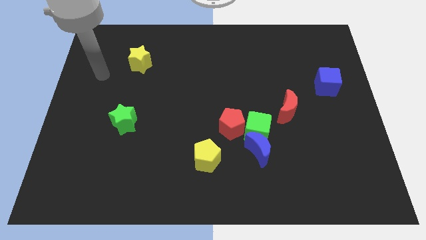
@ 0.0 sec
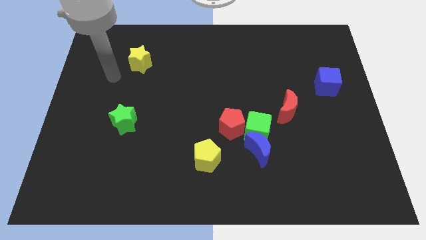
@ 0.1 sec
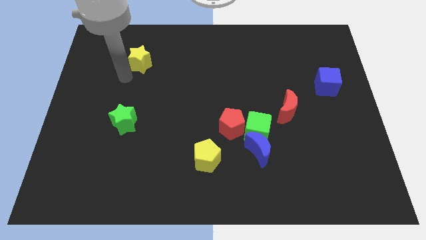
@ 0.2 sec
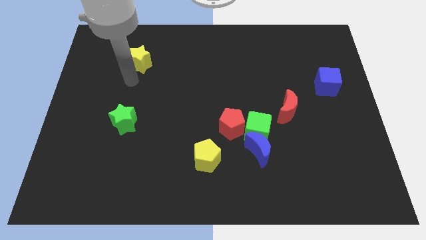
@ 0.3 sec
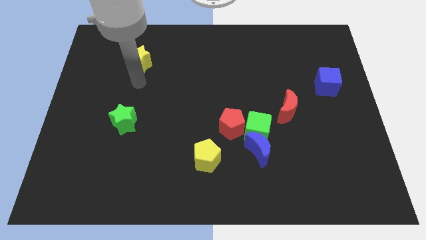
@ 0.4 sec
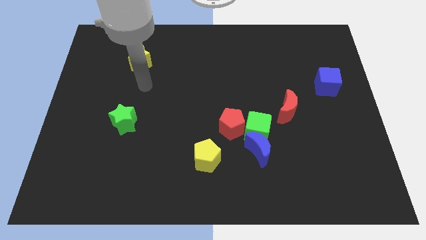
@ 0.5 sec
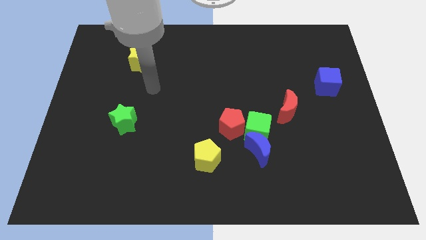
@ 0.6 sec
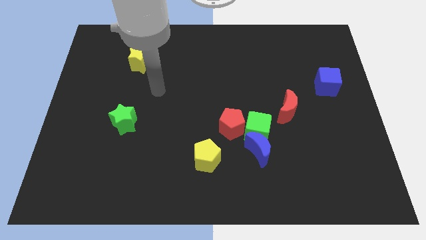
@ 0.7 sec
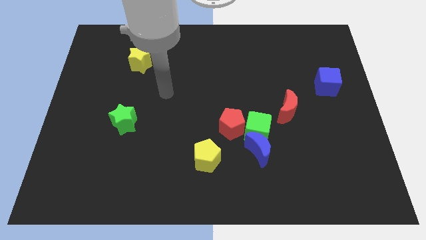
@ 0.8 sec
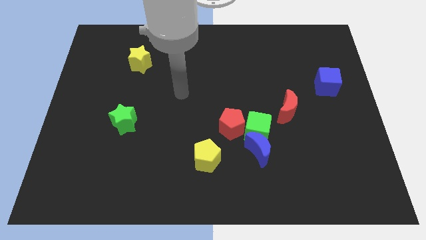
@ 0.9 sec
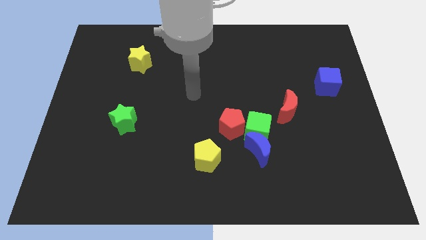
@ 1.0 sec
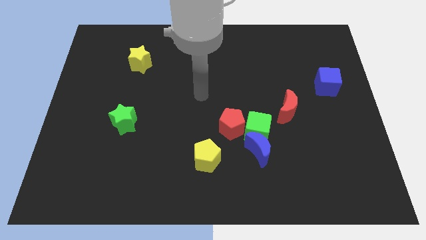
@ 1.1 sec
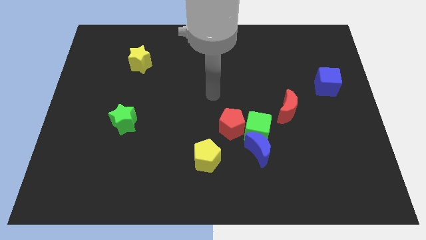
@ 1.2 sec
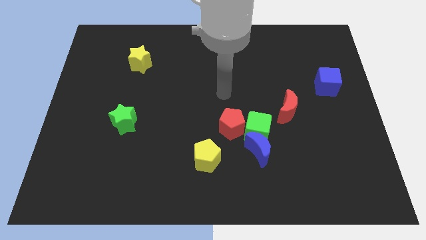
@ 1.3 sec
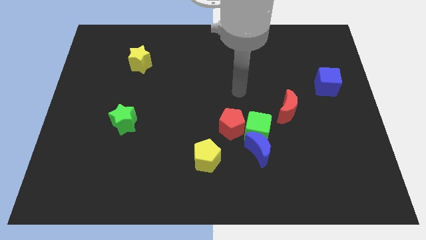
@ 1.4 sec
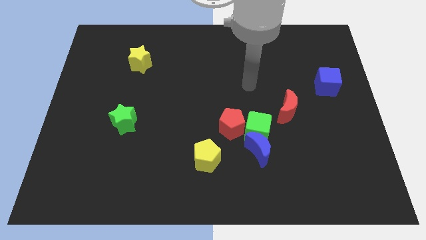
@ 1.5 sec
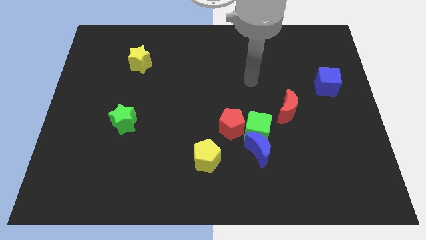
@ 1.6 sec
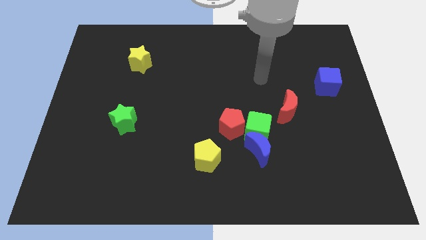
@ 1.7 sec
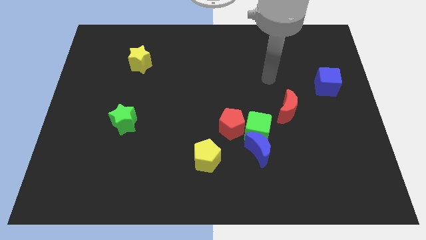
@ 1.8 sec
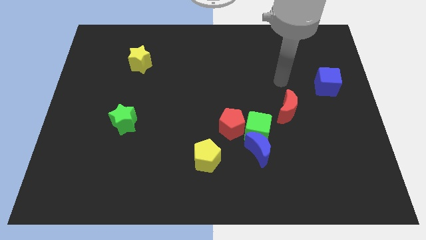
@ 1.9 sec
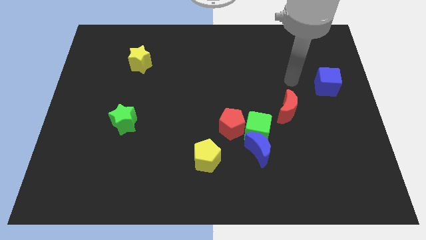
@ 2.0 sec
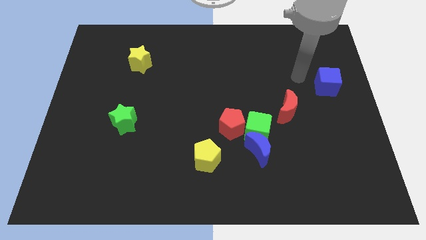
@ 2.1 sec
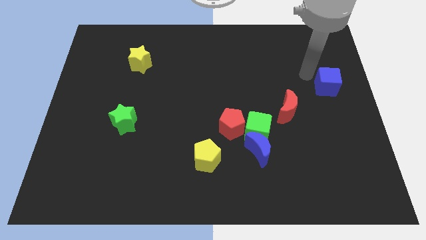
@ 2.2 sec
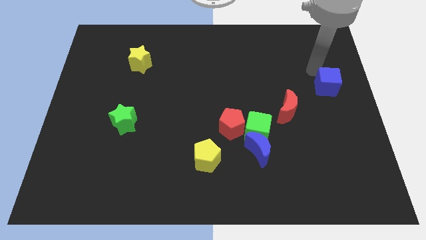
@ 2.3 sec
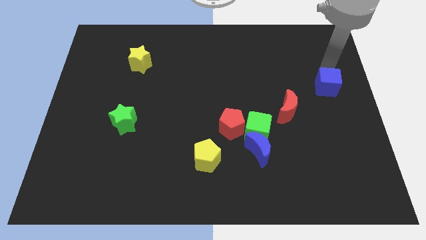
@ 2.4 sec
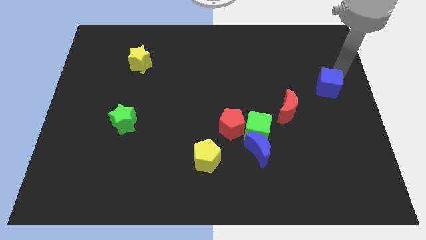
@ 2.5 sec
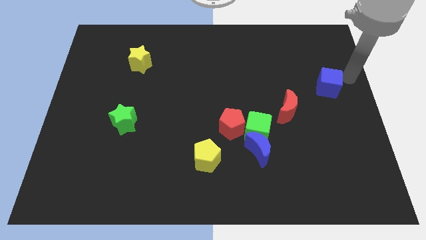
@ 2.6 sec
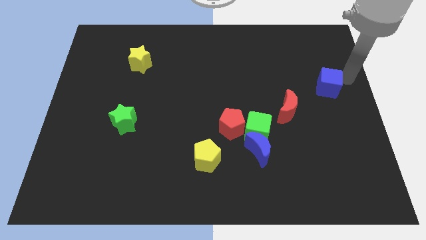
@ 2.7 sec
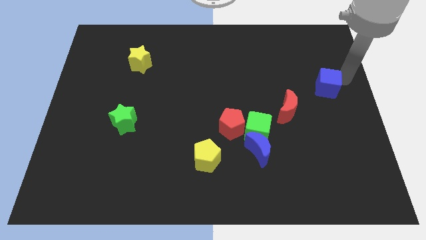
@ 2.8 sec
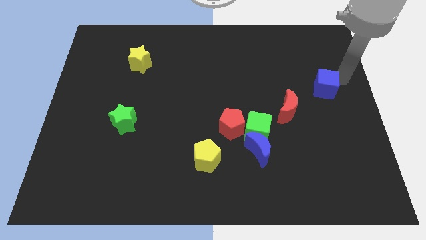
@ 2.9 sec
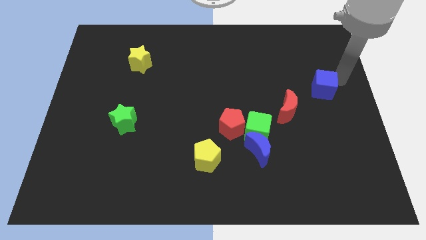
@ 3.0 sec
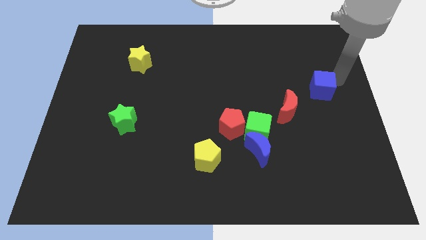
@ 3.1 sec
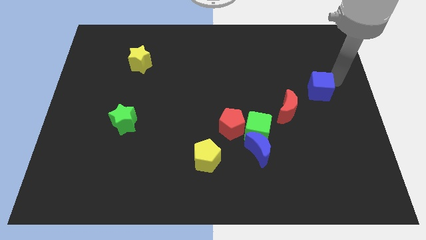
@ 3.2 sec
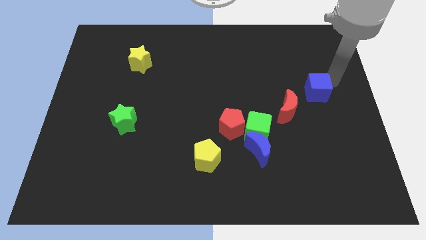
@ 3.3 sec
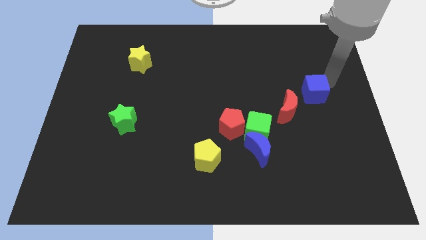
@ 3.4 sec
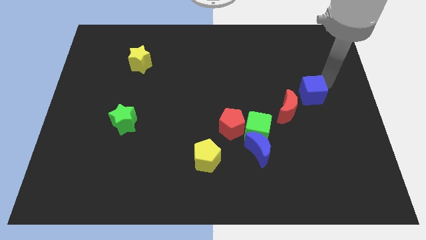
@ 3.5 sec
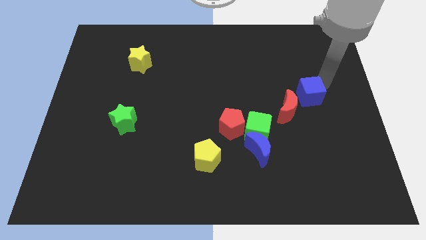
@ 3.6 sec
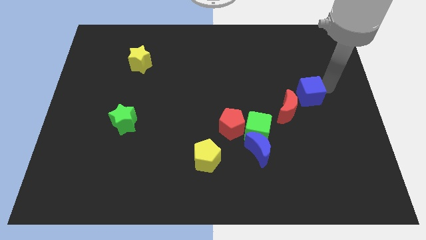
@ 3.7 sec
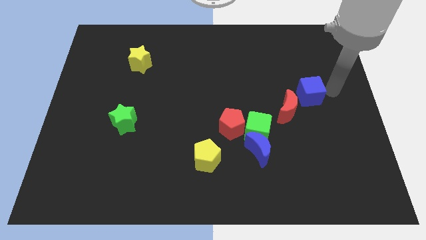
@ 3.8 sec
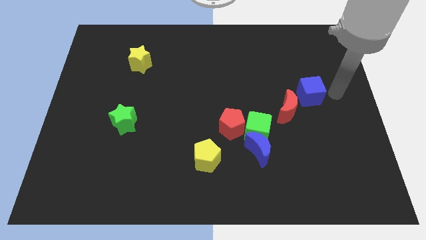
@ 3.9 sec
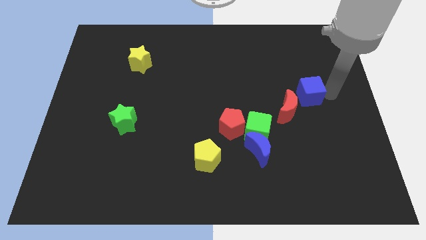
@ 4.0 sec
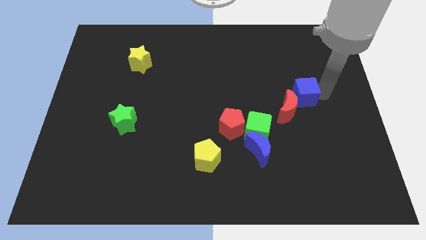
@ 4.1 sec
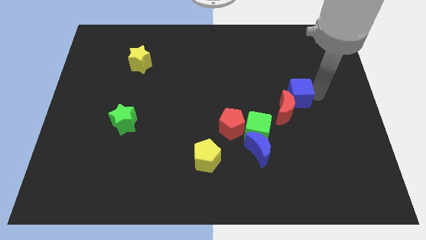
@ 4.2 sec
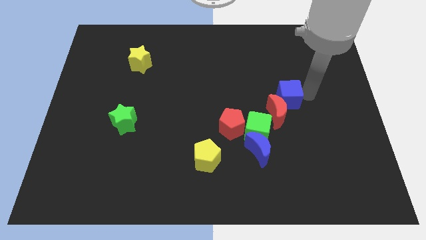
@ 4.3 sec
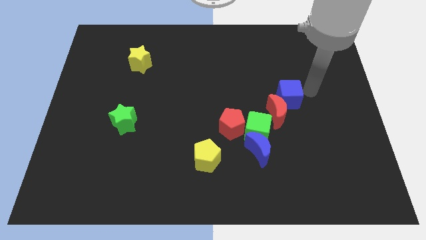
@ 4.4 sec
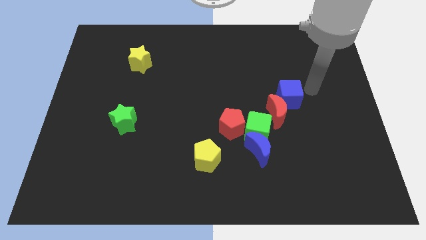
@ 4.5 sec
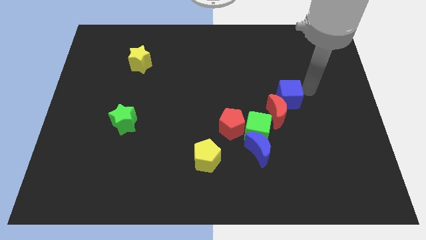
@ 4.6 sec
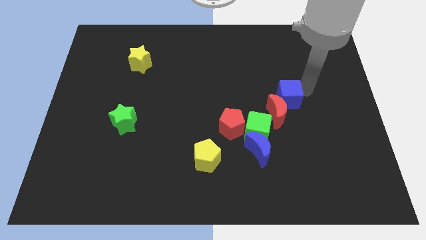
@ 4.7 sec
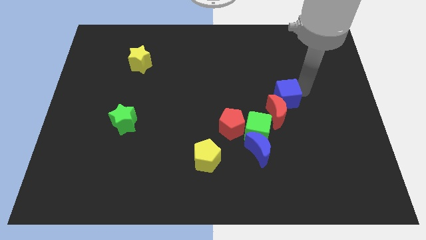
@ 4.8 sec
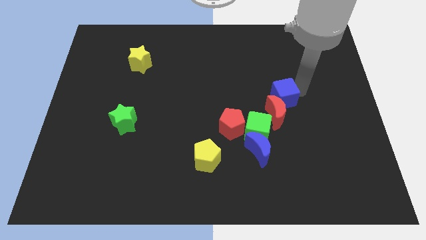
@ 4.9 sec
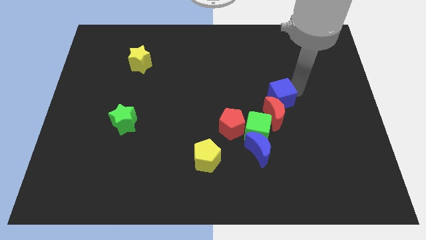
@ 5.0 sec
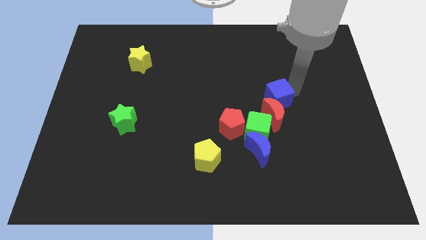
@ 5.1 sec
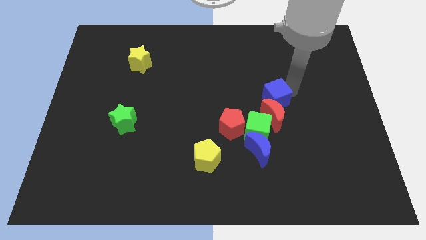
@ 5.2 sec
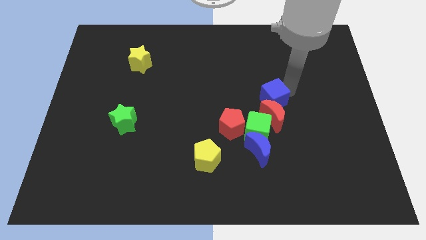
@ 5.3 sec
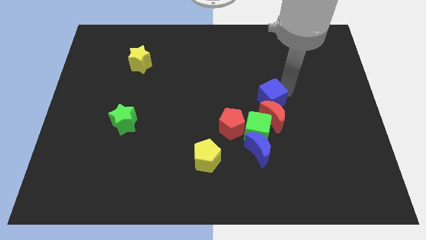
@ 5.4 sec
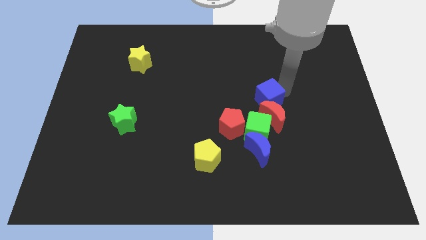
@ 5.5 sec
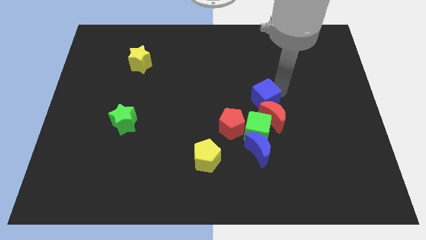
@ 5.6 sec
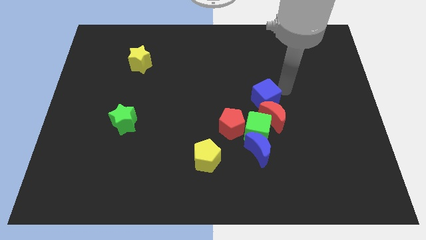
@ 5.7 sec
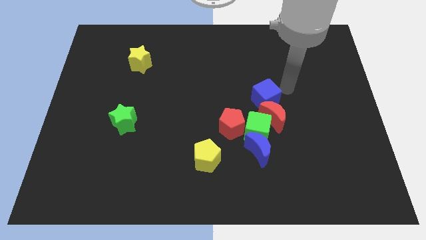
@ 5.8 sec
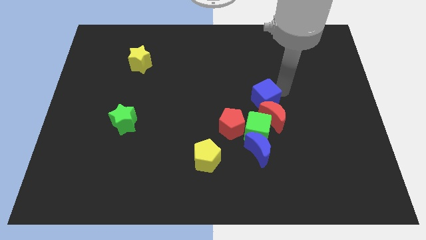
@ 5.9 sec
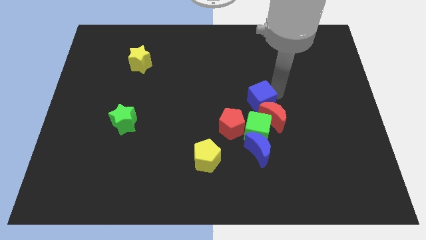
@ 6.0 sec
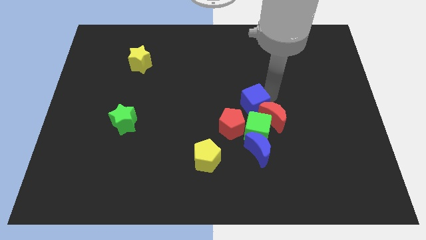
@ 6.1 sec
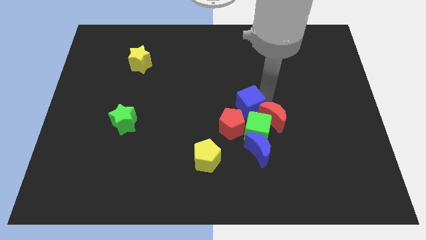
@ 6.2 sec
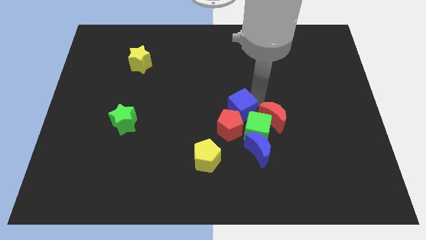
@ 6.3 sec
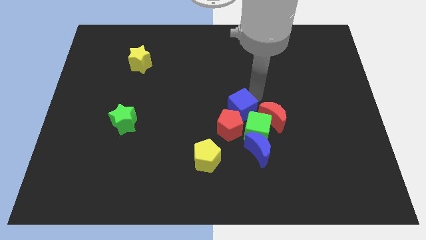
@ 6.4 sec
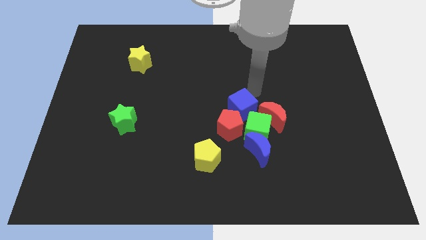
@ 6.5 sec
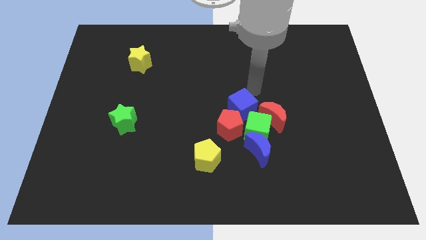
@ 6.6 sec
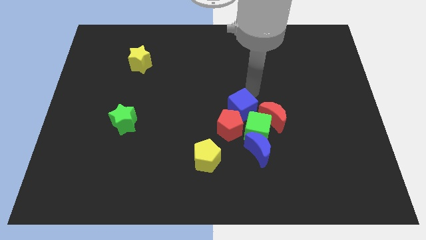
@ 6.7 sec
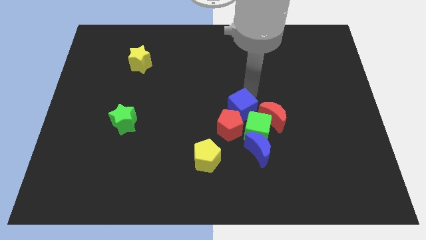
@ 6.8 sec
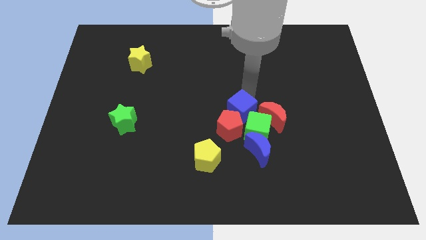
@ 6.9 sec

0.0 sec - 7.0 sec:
slide the blue cube close to the red pentagon
